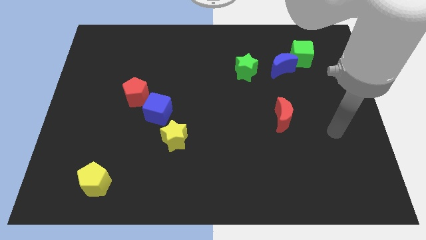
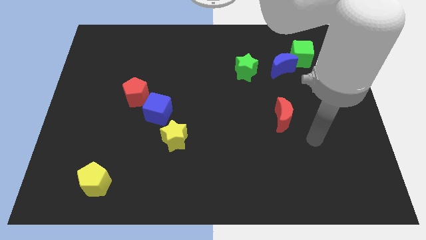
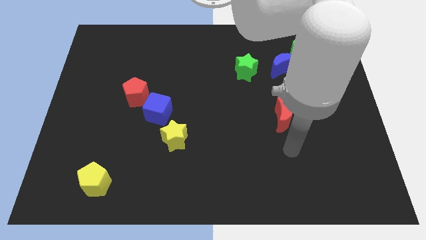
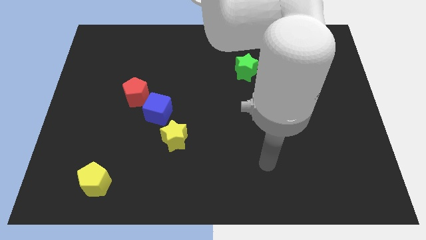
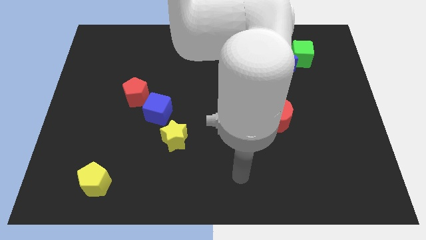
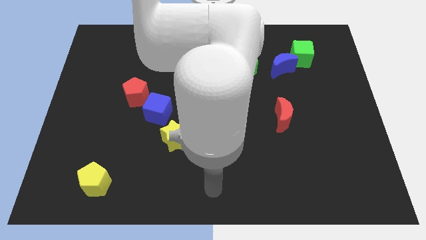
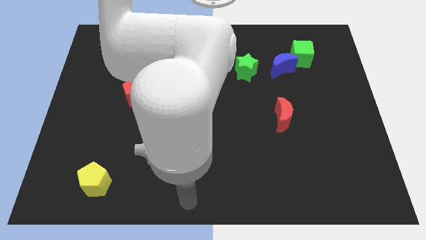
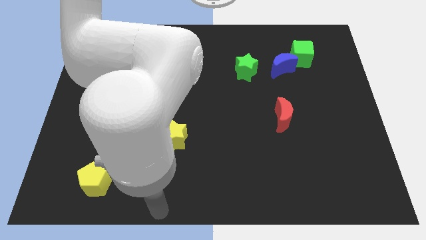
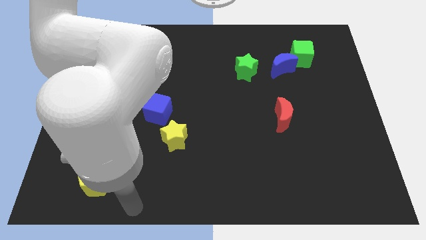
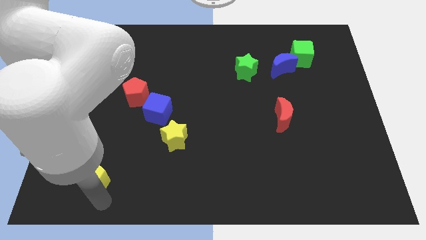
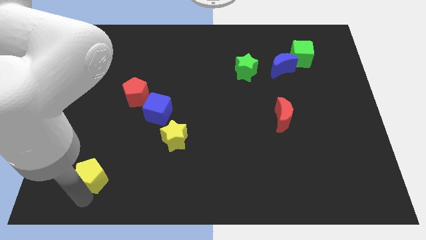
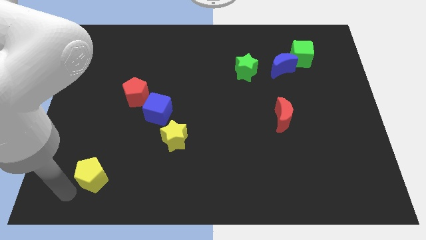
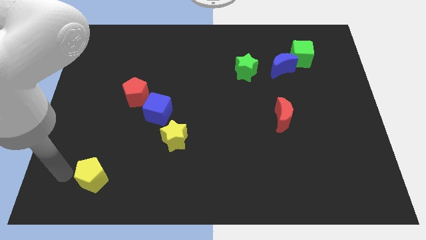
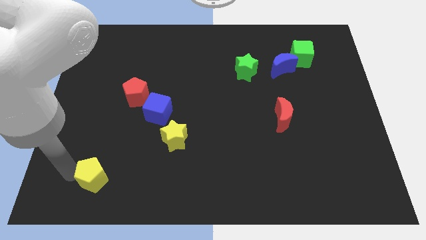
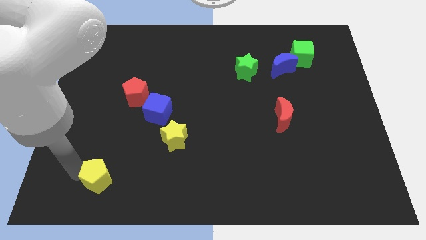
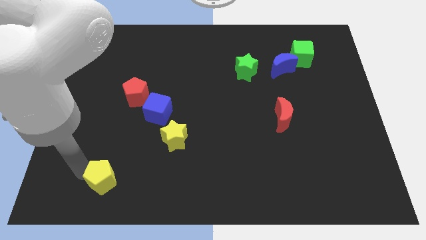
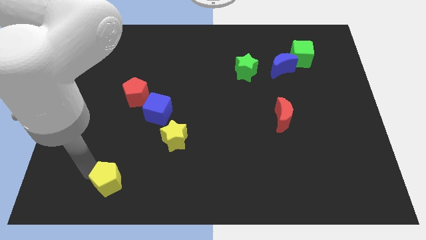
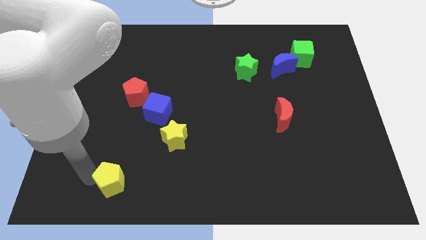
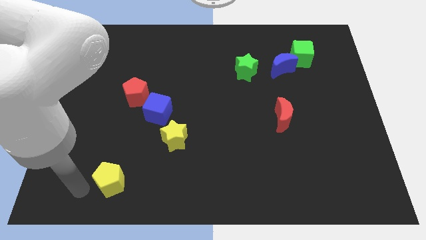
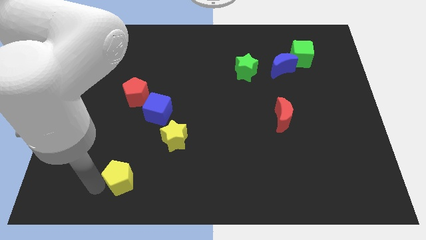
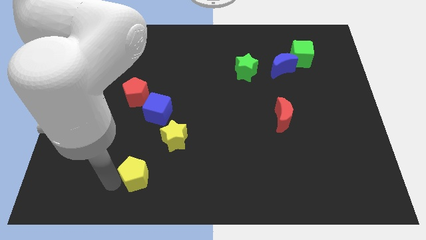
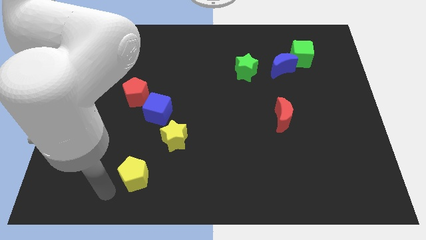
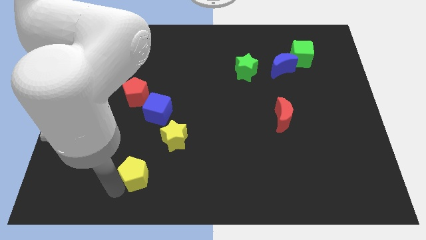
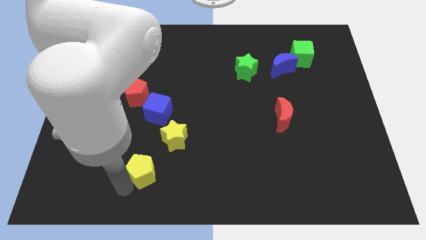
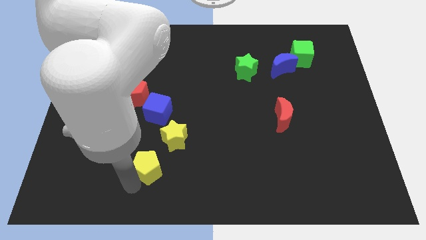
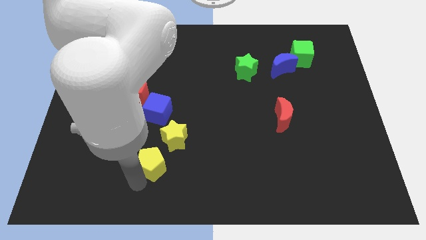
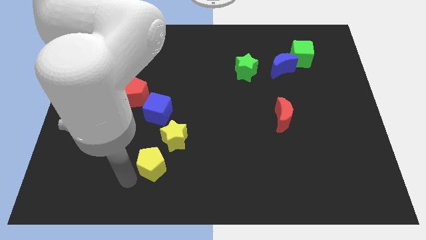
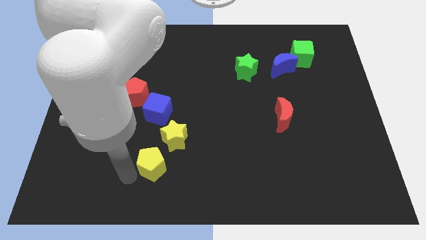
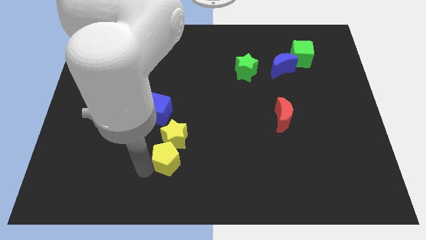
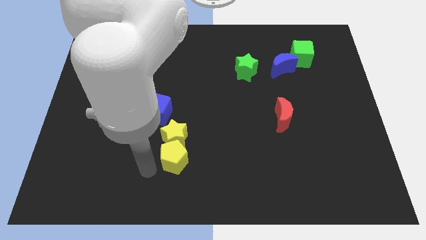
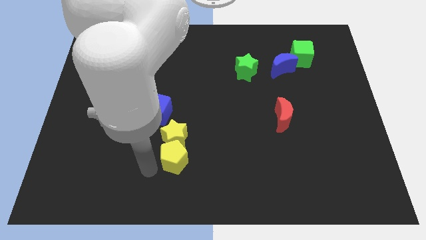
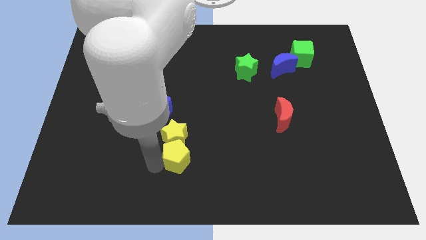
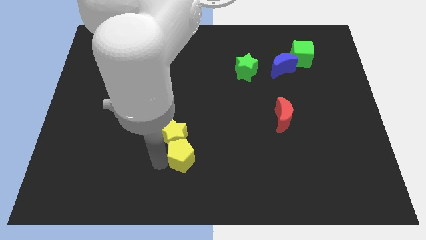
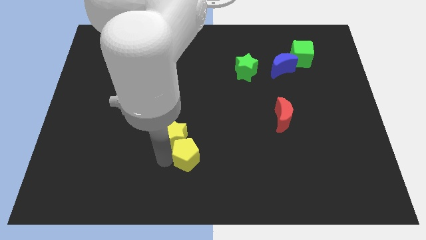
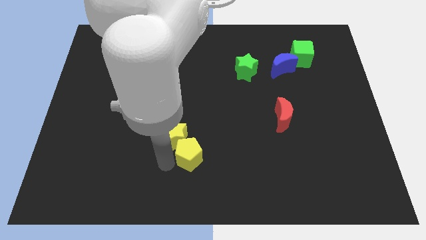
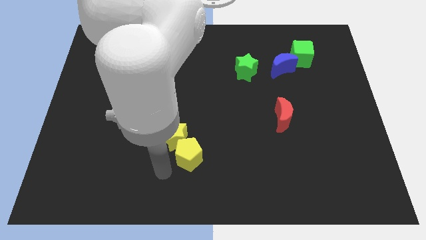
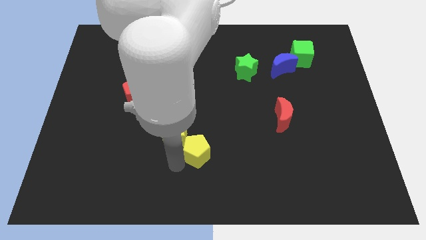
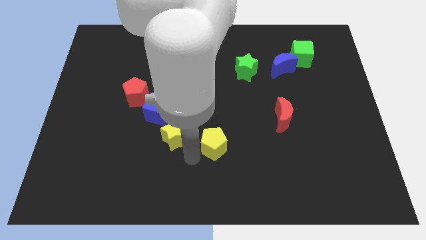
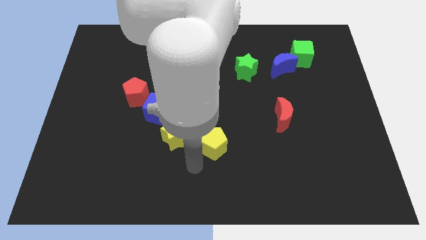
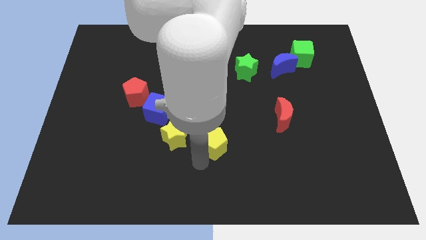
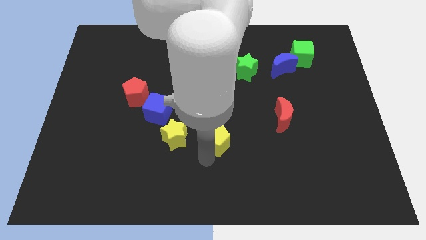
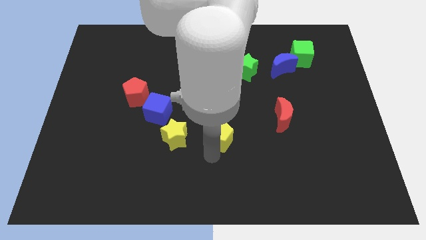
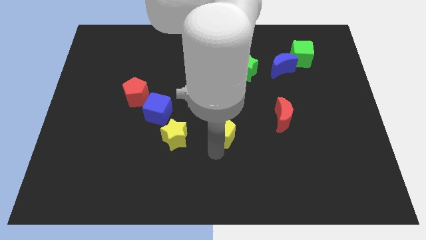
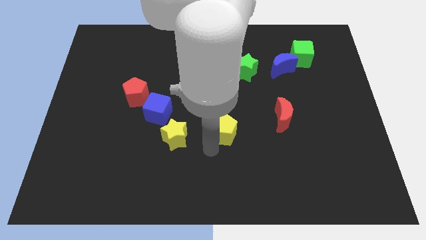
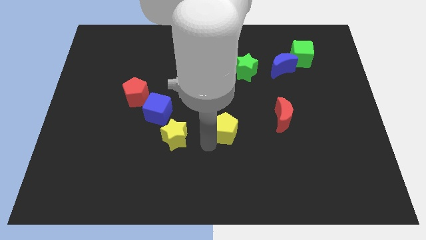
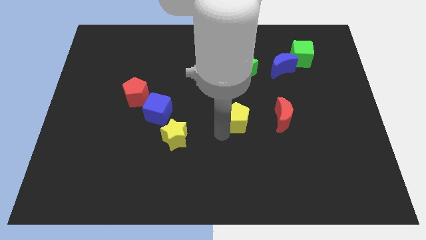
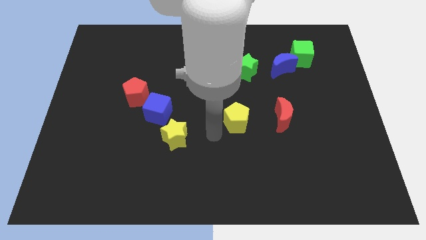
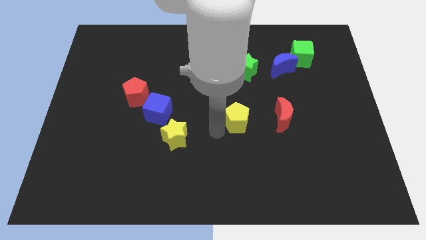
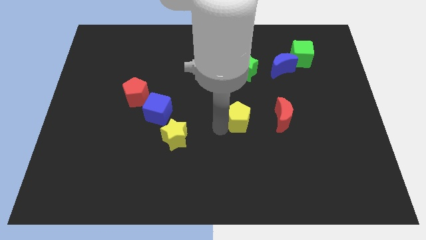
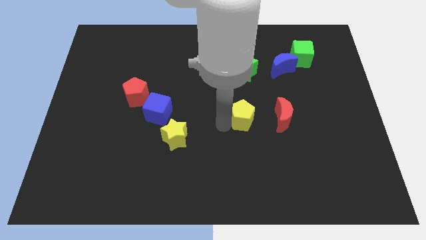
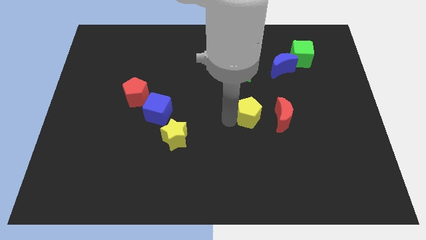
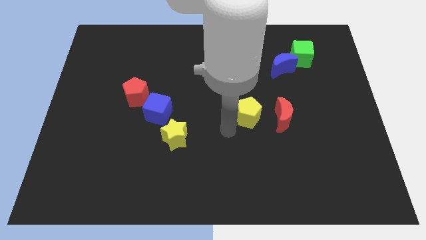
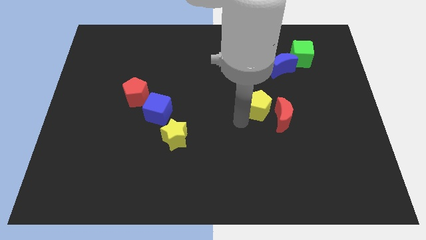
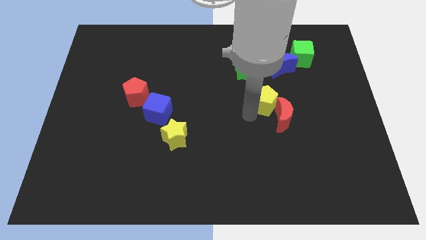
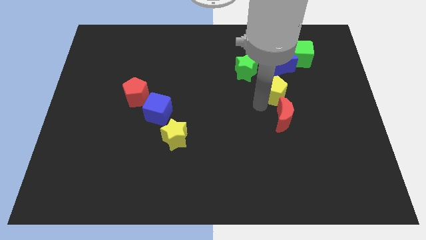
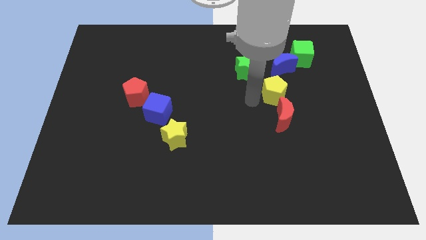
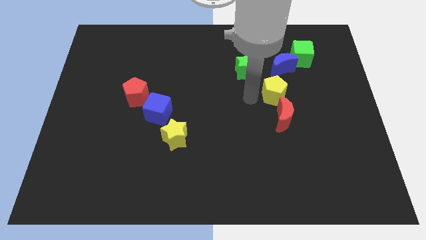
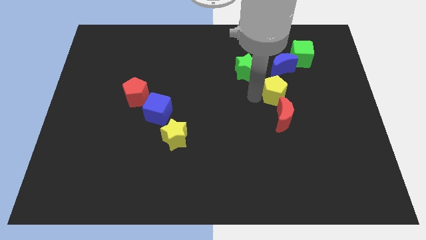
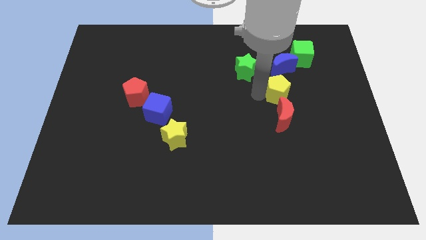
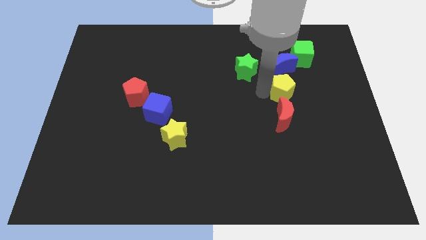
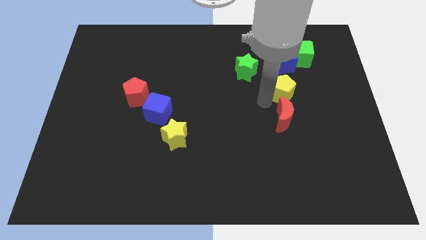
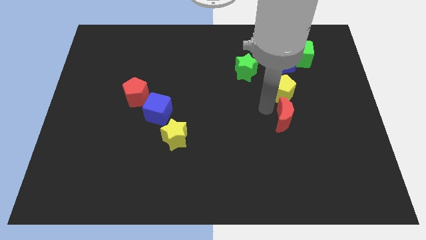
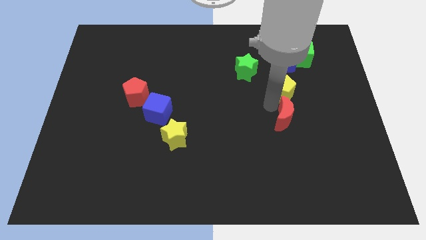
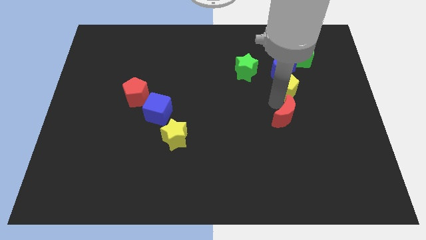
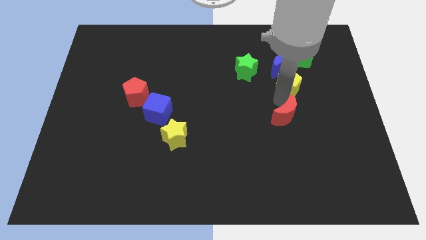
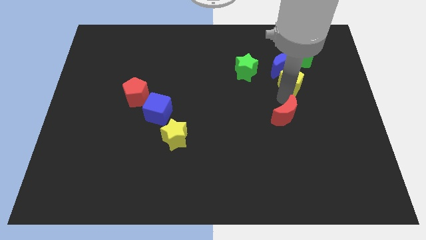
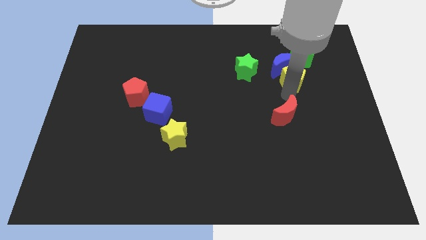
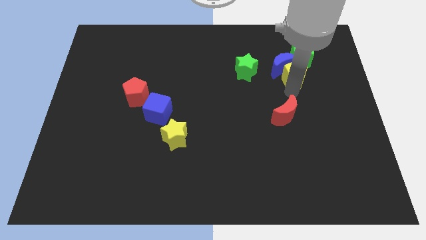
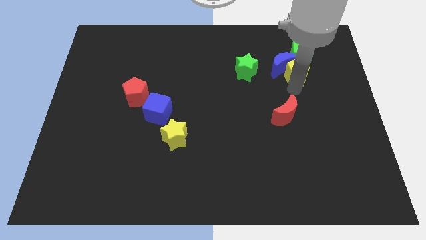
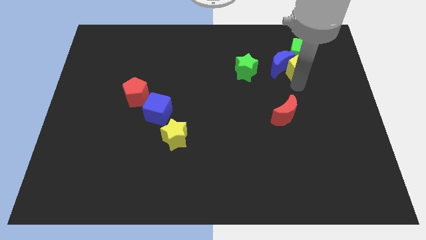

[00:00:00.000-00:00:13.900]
move the yellow pentagon to the green cube
